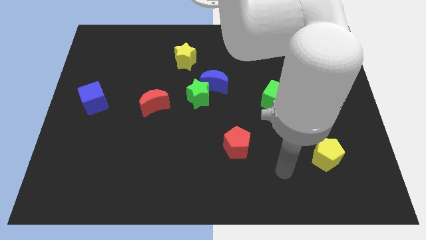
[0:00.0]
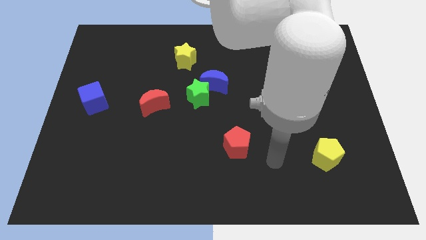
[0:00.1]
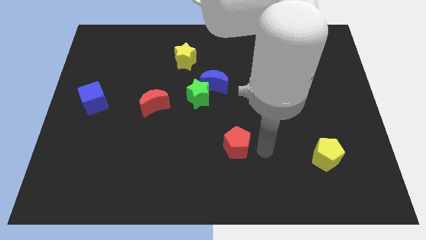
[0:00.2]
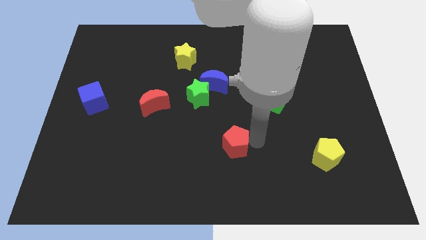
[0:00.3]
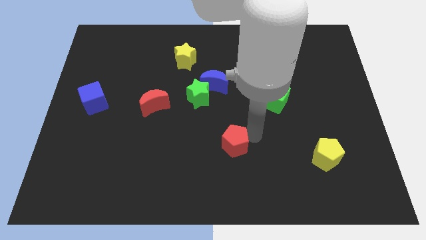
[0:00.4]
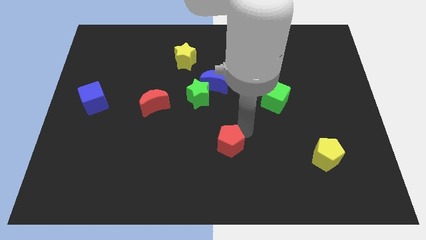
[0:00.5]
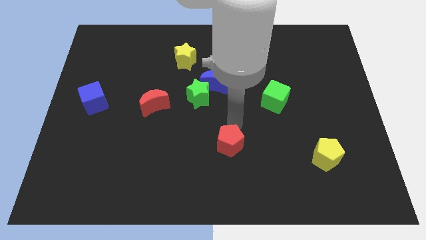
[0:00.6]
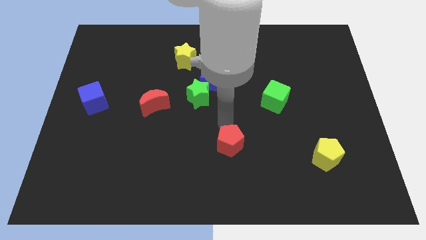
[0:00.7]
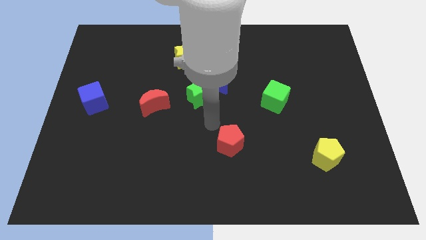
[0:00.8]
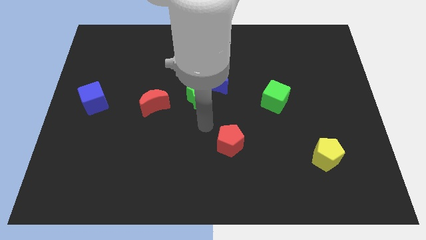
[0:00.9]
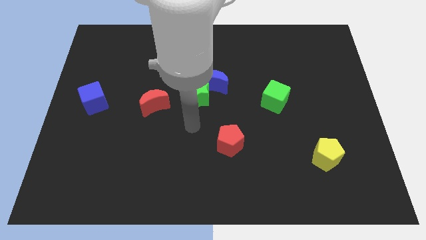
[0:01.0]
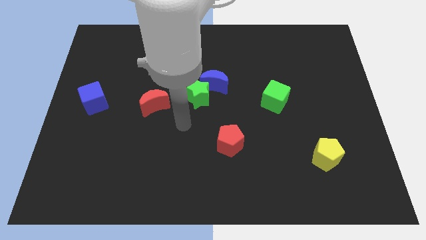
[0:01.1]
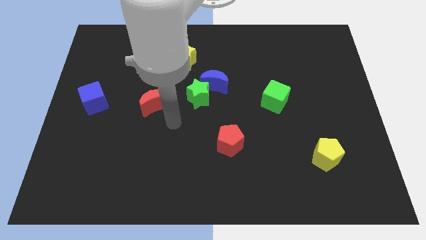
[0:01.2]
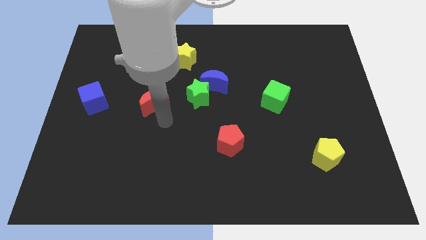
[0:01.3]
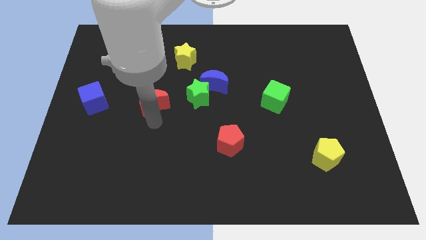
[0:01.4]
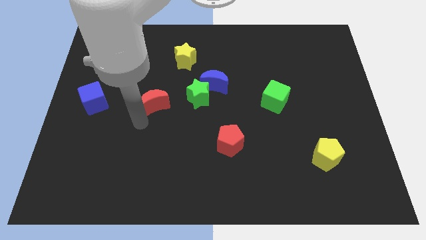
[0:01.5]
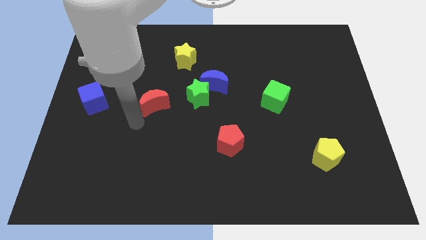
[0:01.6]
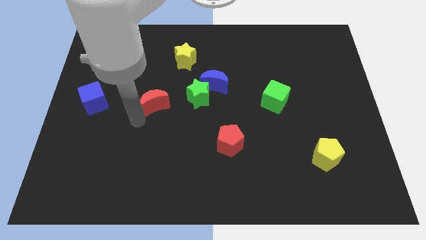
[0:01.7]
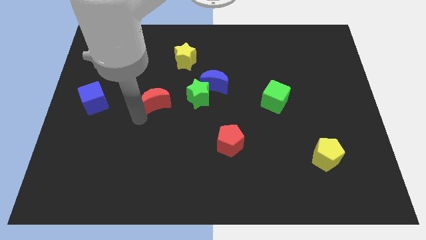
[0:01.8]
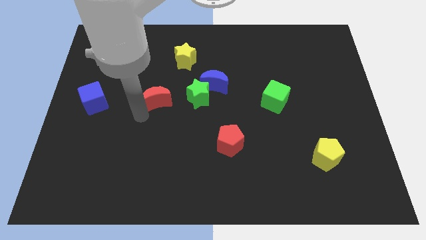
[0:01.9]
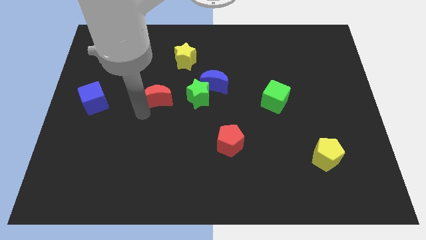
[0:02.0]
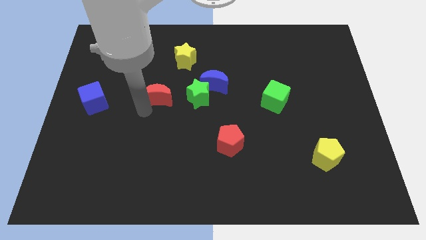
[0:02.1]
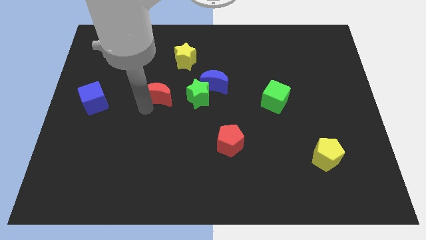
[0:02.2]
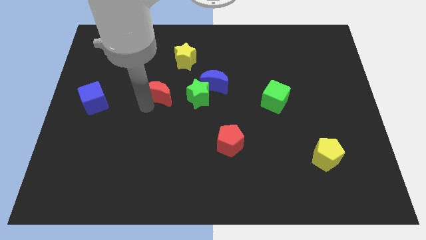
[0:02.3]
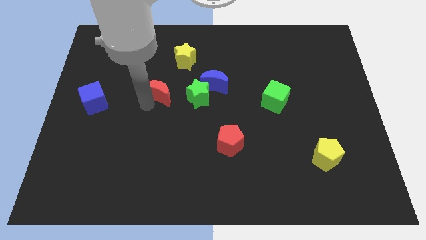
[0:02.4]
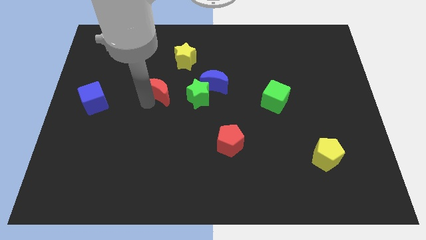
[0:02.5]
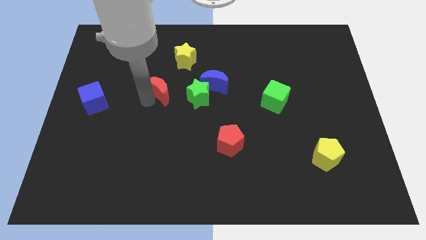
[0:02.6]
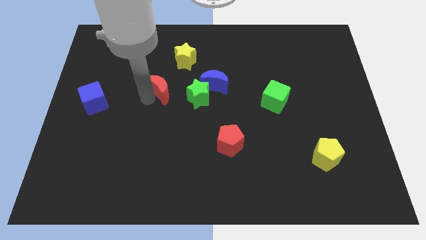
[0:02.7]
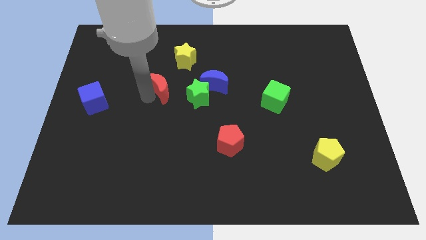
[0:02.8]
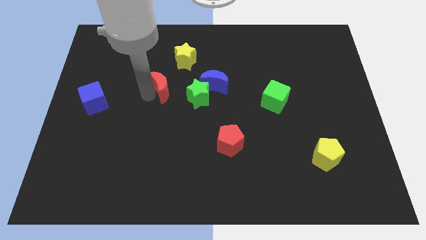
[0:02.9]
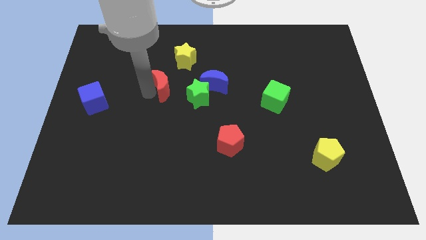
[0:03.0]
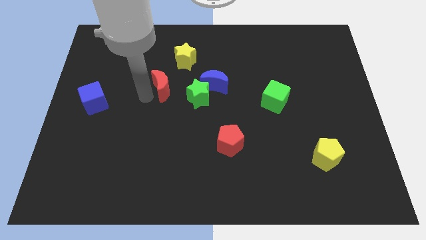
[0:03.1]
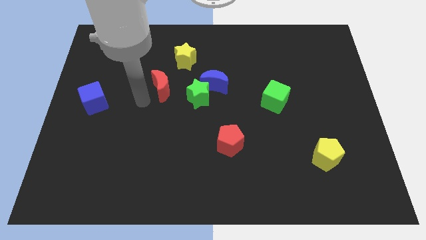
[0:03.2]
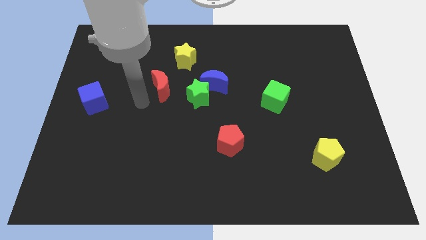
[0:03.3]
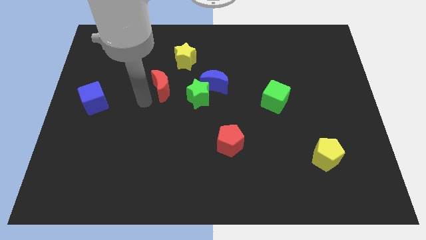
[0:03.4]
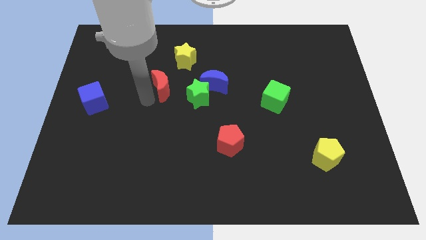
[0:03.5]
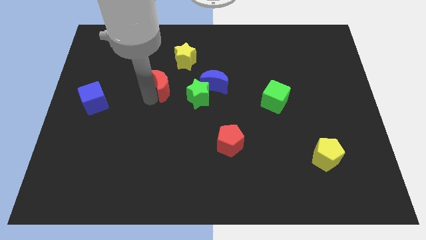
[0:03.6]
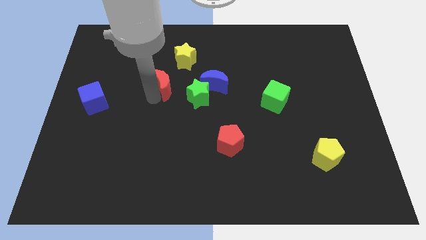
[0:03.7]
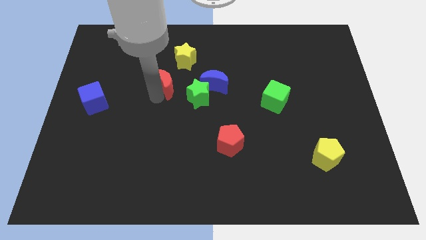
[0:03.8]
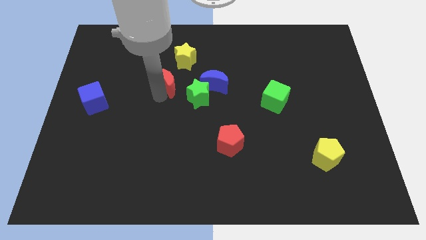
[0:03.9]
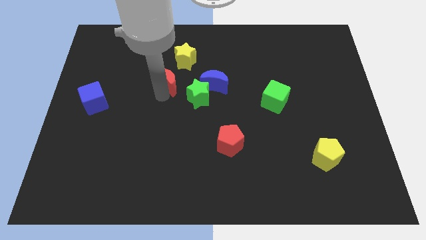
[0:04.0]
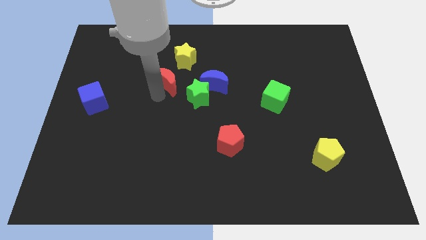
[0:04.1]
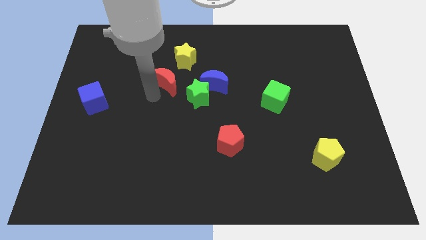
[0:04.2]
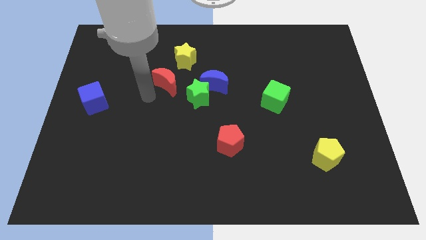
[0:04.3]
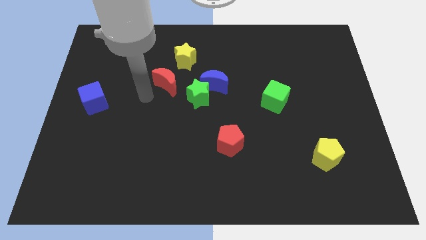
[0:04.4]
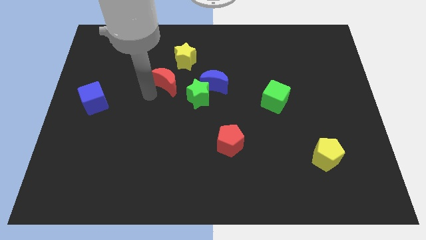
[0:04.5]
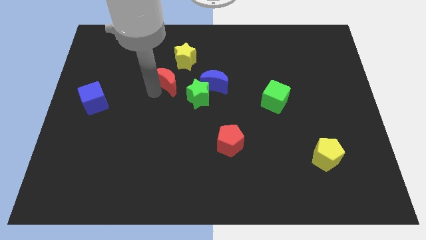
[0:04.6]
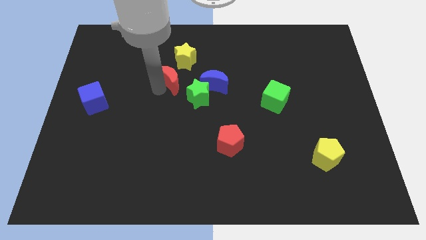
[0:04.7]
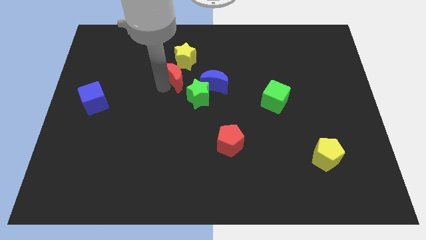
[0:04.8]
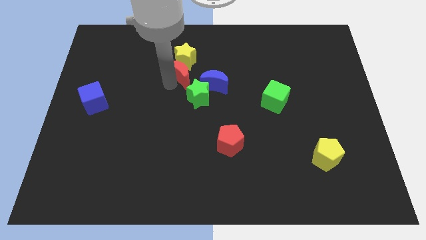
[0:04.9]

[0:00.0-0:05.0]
slide the red moon close to the yellow star

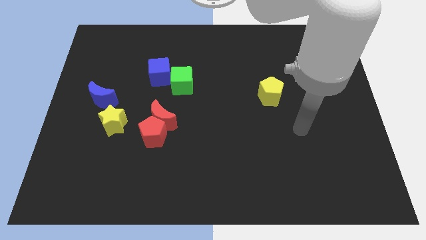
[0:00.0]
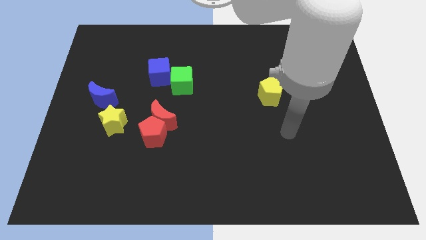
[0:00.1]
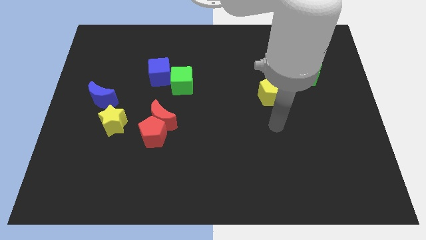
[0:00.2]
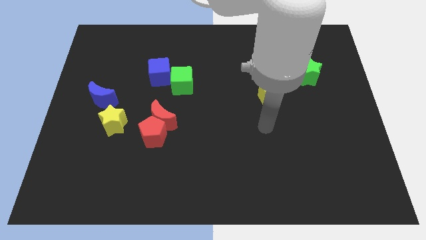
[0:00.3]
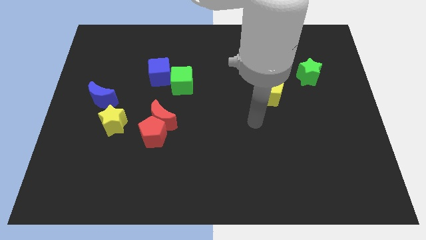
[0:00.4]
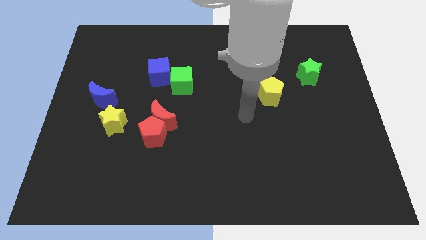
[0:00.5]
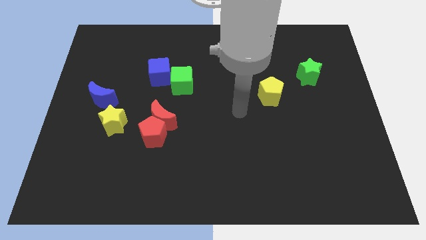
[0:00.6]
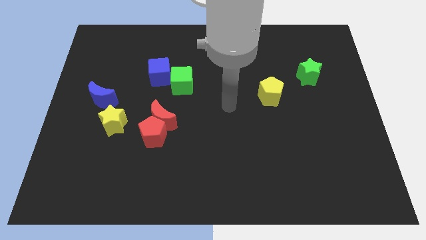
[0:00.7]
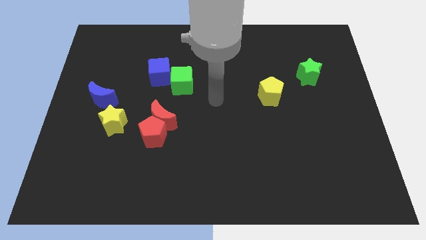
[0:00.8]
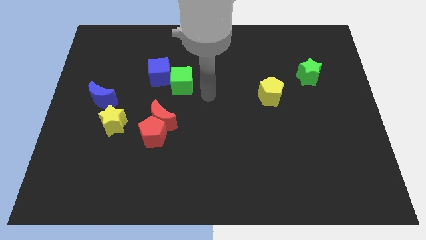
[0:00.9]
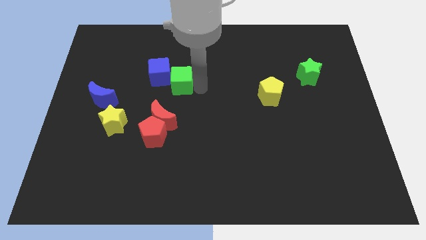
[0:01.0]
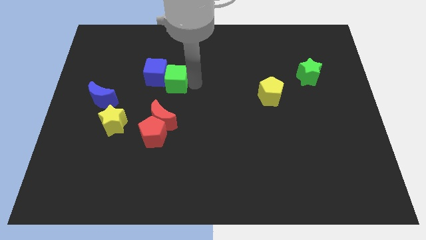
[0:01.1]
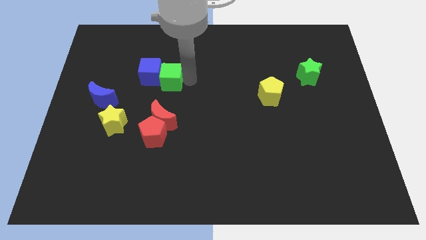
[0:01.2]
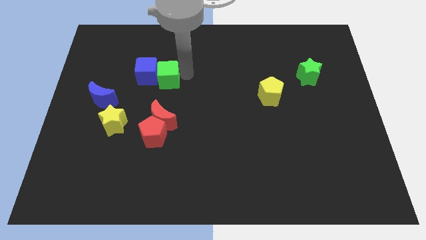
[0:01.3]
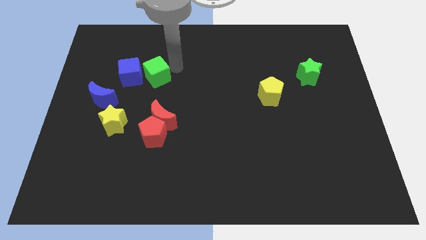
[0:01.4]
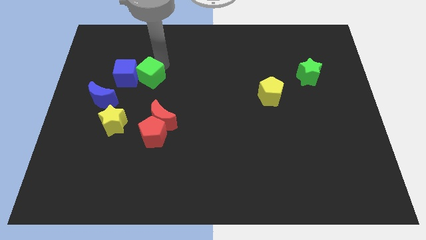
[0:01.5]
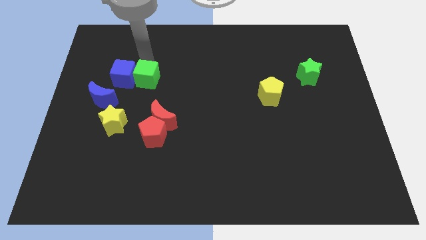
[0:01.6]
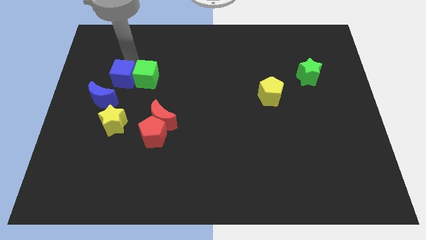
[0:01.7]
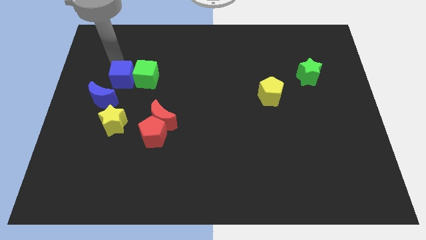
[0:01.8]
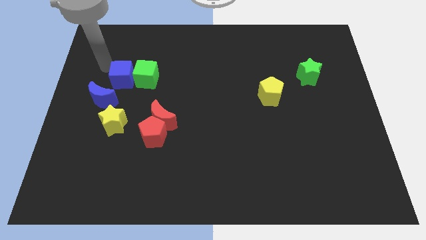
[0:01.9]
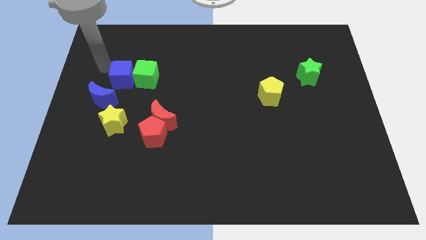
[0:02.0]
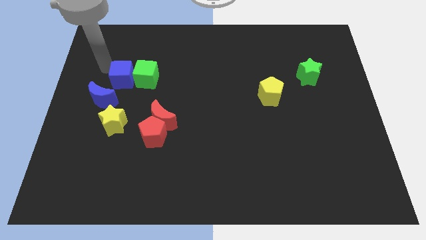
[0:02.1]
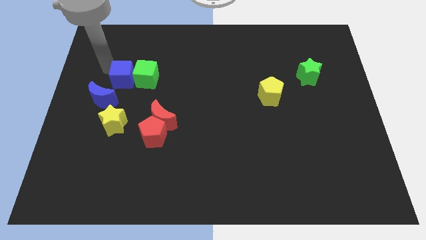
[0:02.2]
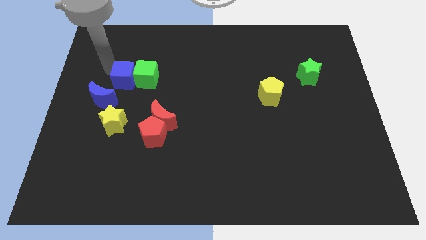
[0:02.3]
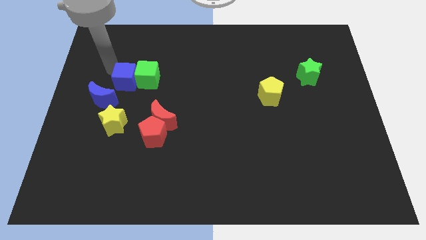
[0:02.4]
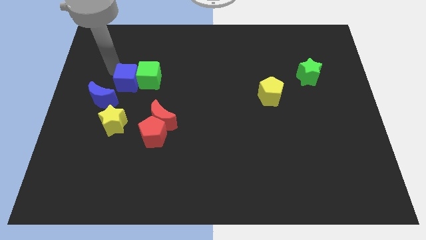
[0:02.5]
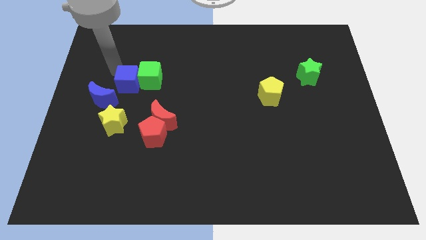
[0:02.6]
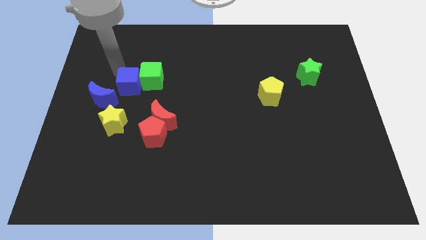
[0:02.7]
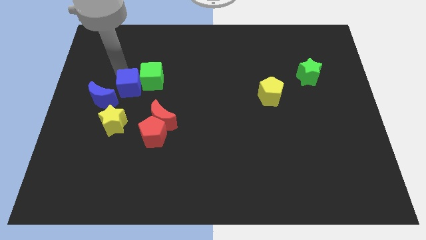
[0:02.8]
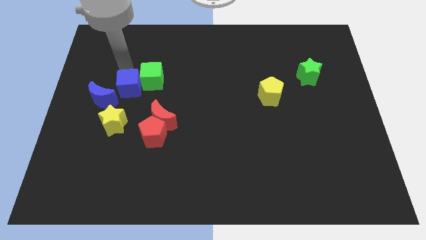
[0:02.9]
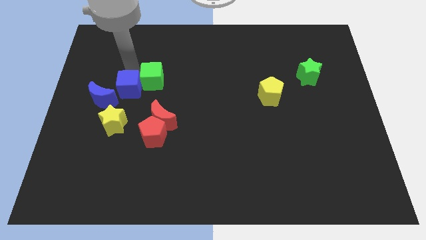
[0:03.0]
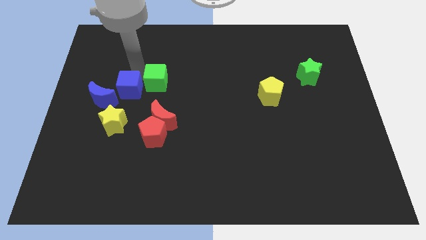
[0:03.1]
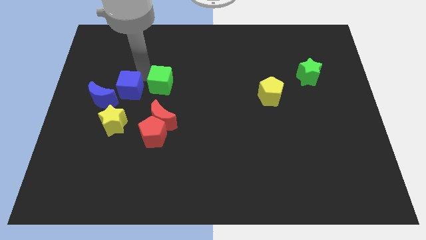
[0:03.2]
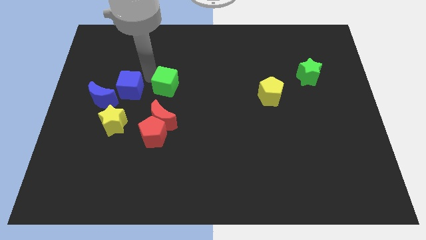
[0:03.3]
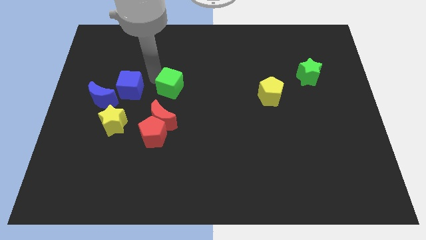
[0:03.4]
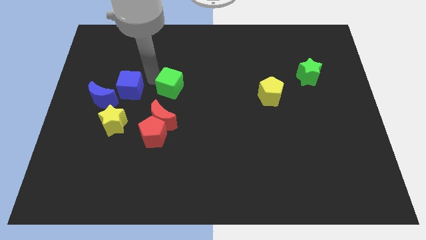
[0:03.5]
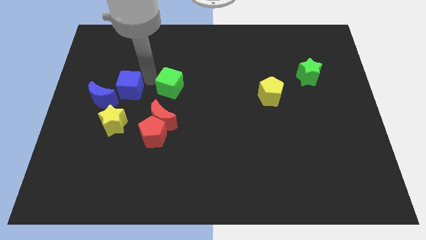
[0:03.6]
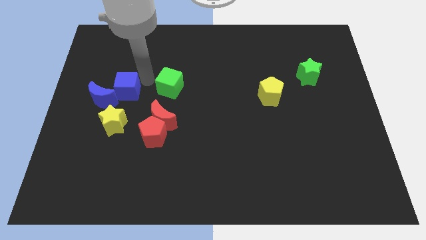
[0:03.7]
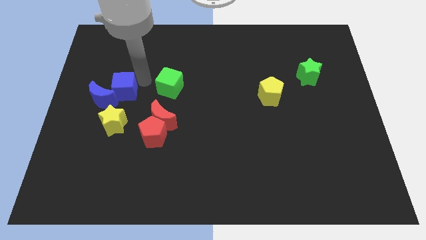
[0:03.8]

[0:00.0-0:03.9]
put the blue cube to the blue moon
